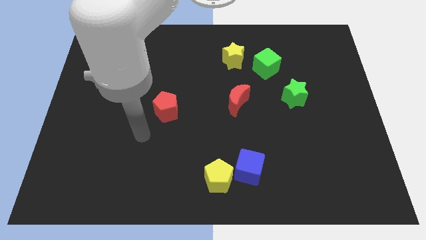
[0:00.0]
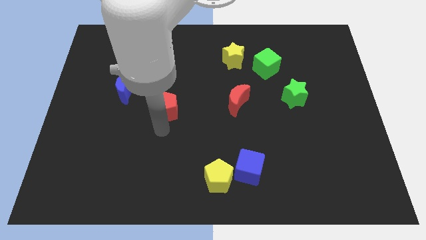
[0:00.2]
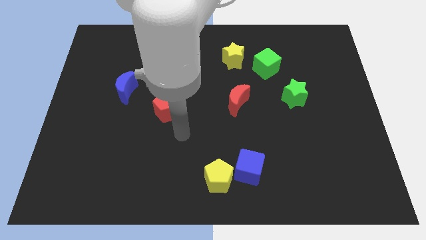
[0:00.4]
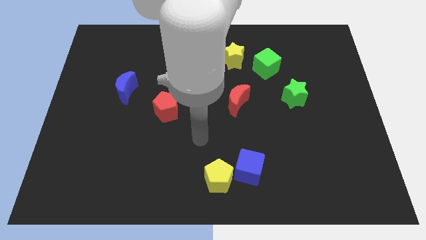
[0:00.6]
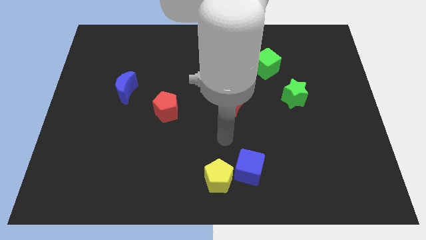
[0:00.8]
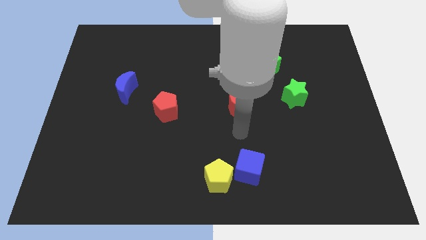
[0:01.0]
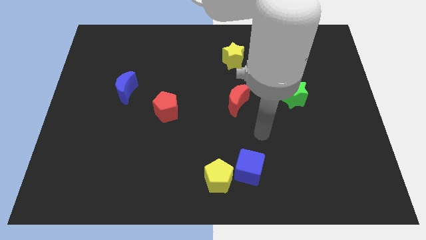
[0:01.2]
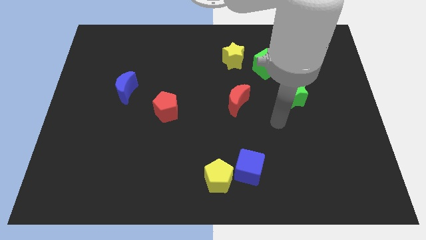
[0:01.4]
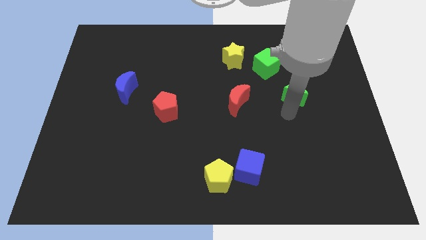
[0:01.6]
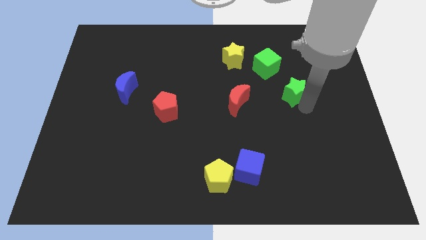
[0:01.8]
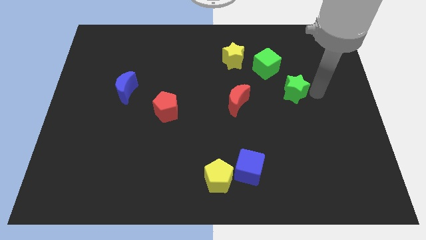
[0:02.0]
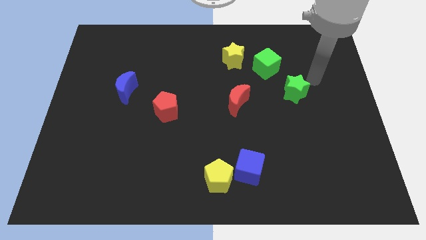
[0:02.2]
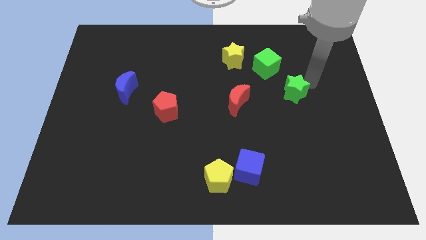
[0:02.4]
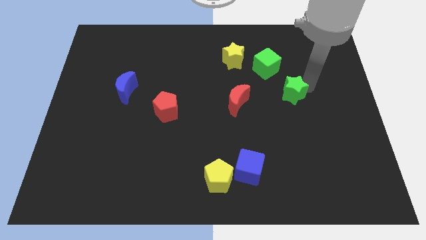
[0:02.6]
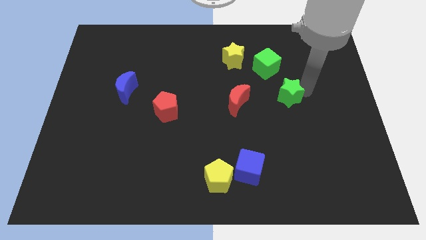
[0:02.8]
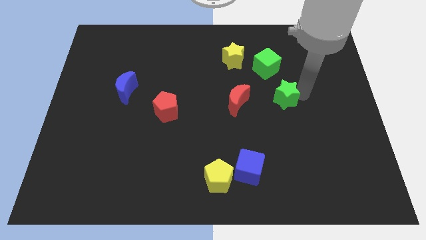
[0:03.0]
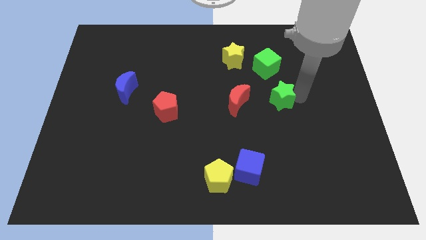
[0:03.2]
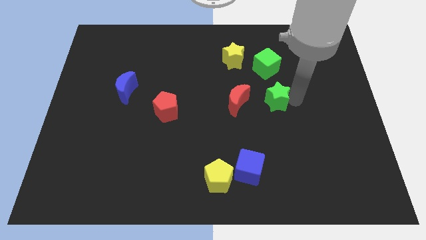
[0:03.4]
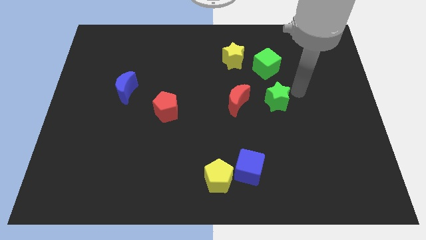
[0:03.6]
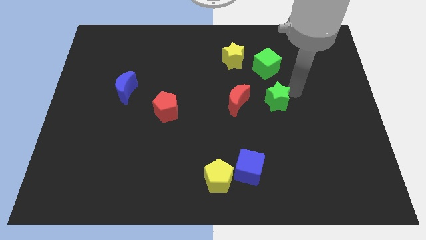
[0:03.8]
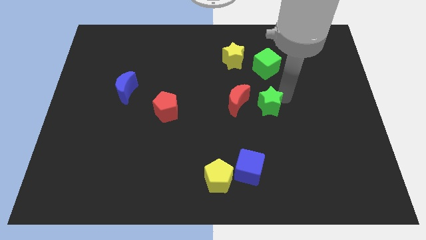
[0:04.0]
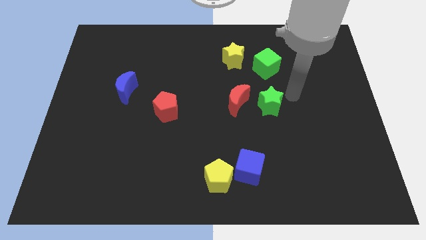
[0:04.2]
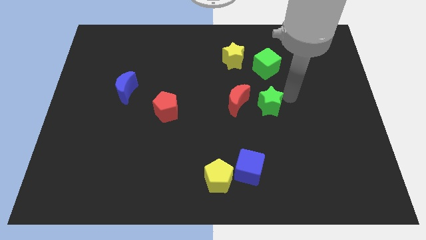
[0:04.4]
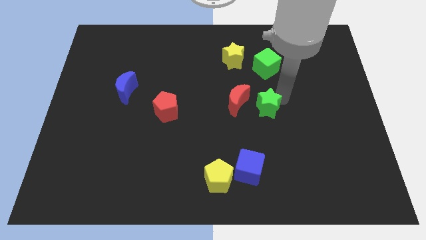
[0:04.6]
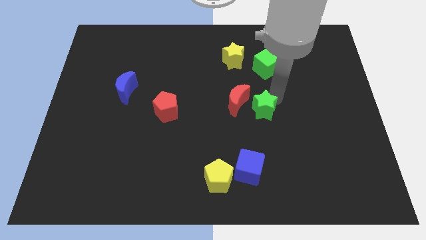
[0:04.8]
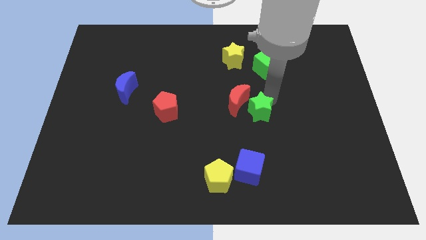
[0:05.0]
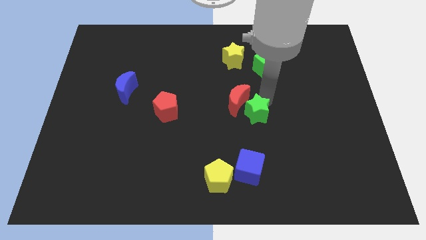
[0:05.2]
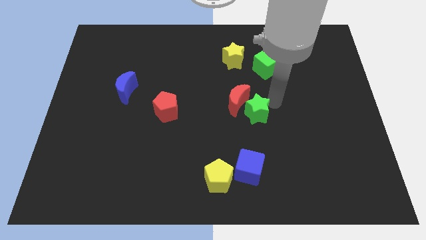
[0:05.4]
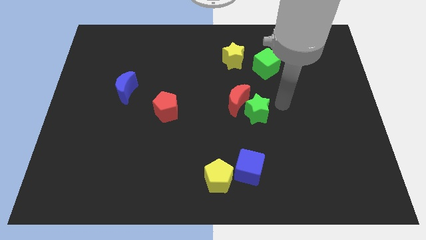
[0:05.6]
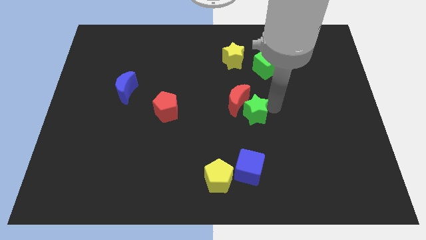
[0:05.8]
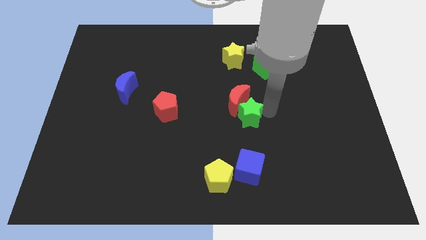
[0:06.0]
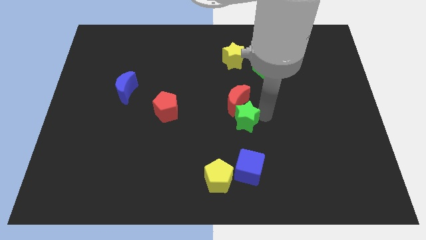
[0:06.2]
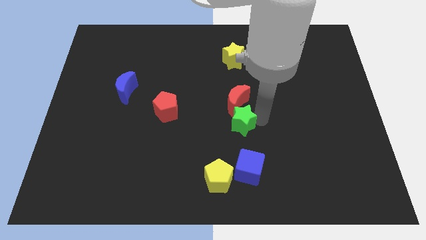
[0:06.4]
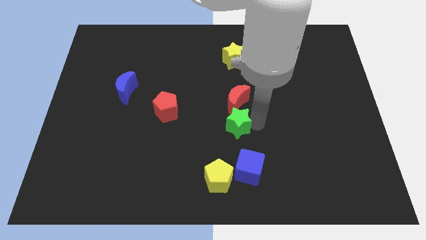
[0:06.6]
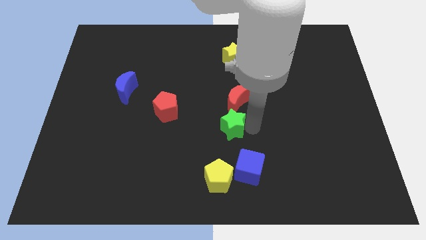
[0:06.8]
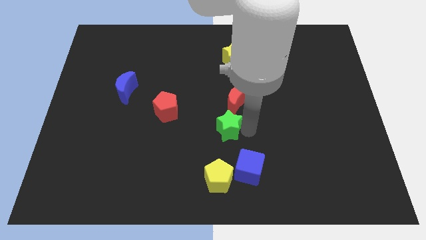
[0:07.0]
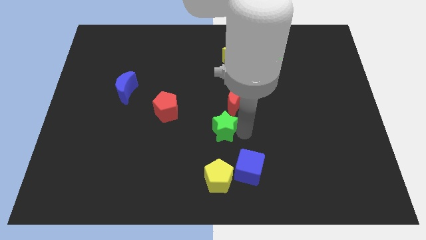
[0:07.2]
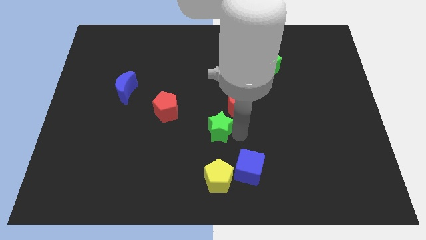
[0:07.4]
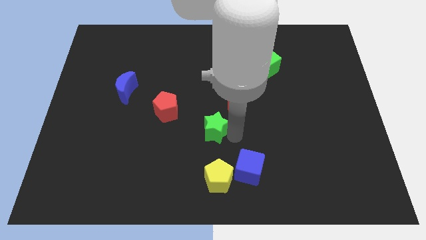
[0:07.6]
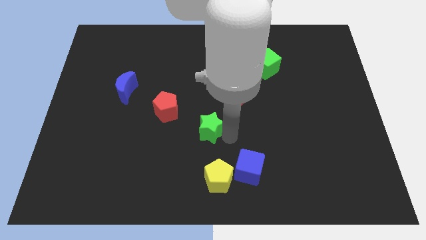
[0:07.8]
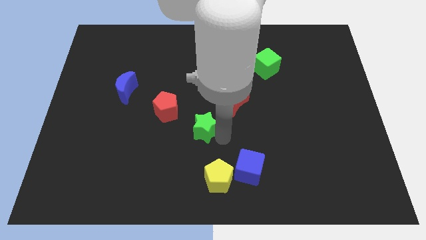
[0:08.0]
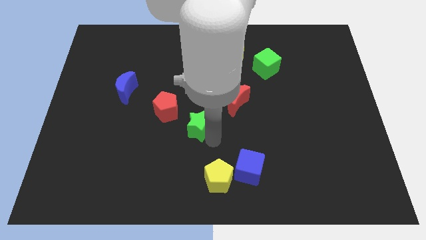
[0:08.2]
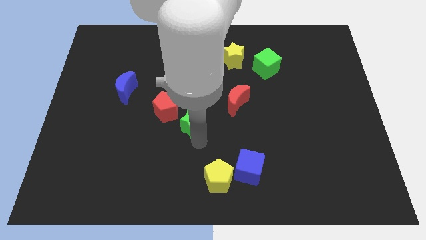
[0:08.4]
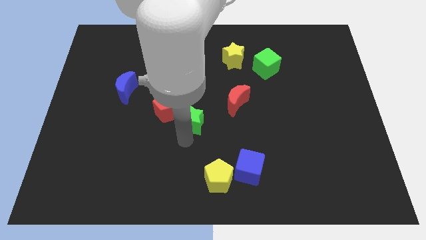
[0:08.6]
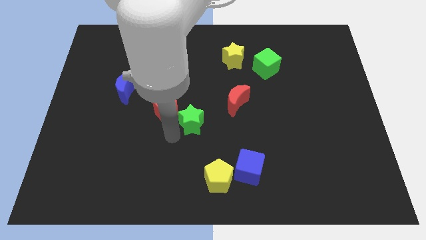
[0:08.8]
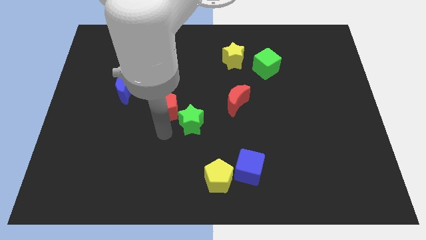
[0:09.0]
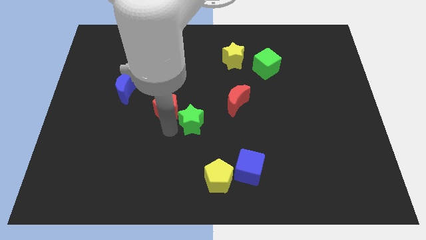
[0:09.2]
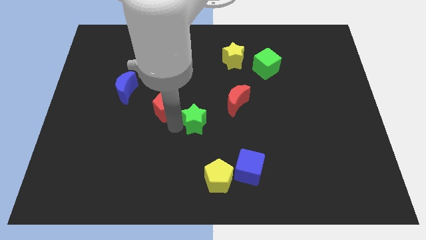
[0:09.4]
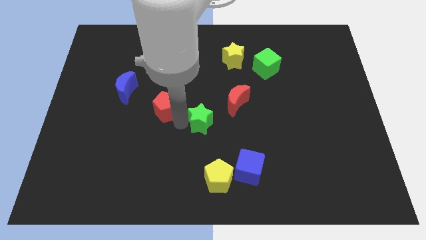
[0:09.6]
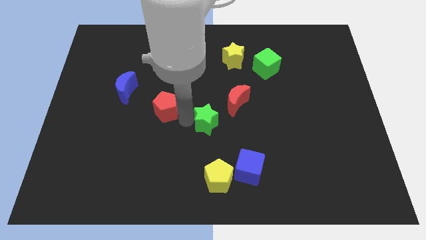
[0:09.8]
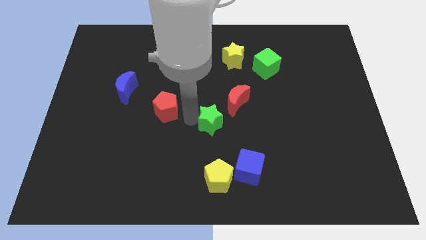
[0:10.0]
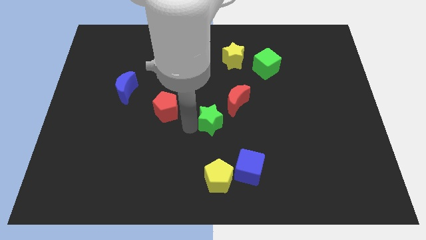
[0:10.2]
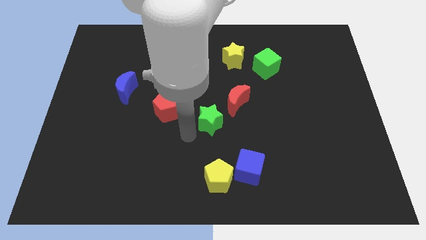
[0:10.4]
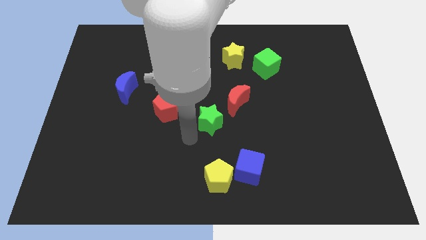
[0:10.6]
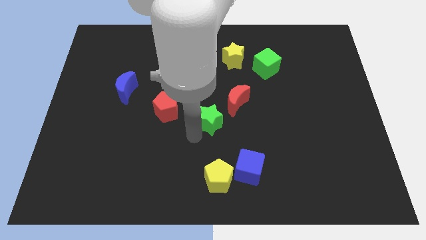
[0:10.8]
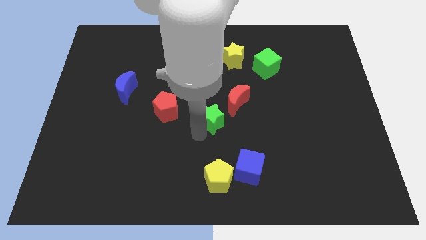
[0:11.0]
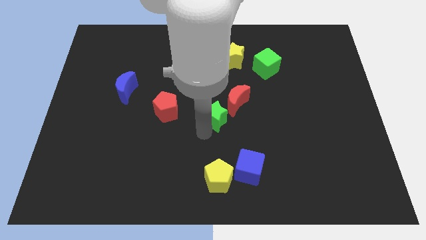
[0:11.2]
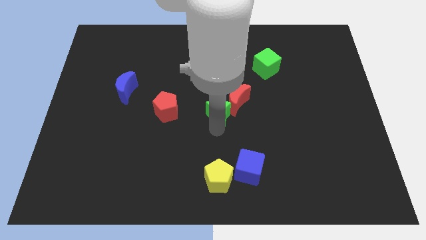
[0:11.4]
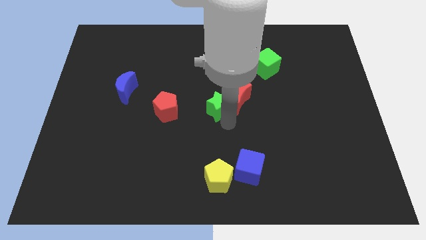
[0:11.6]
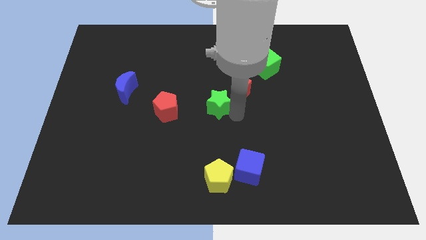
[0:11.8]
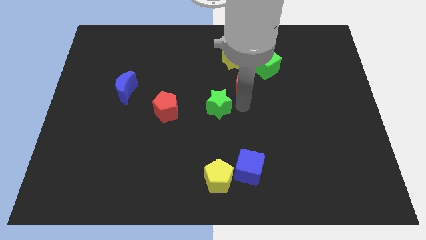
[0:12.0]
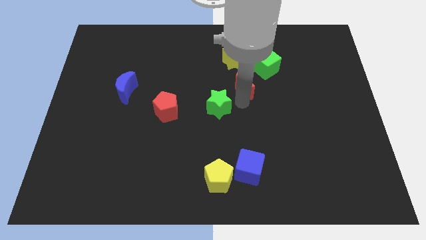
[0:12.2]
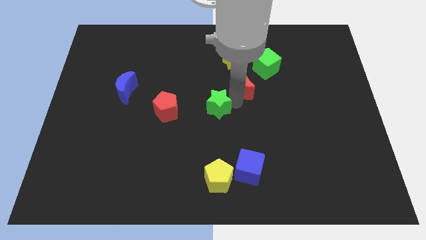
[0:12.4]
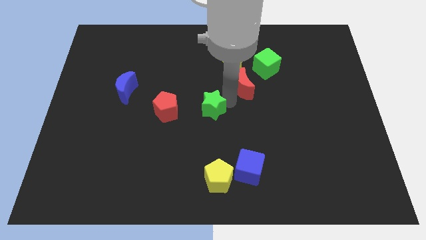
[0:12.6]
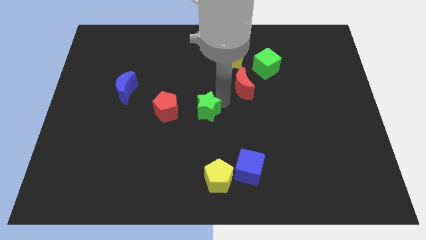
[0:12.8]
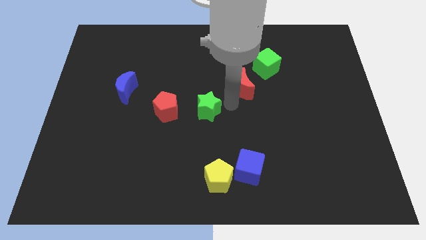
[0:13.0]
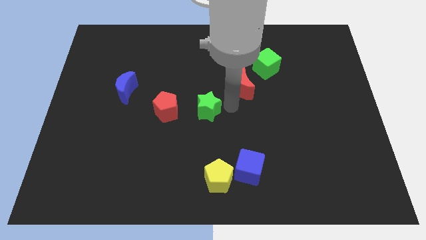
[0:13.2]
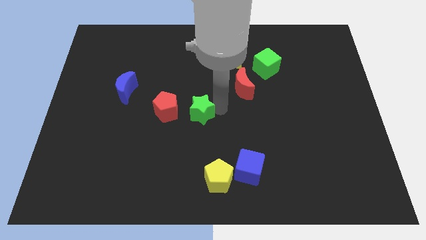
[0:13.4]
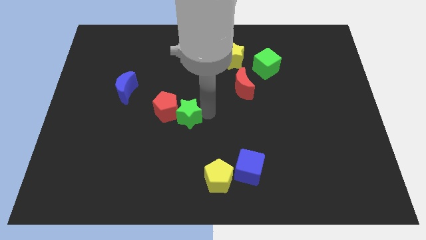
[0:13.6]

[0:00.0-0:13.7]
move the green star next to the red pentagon

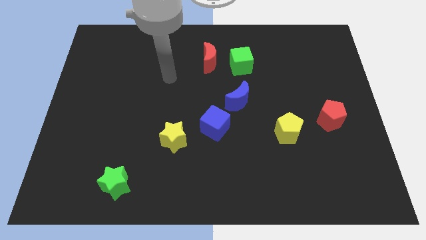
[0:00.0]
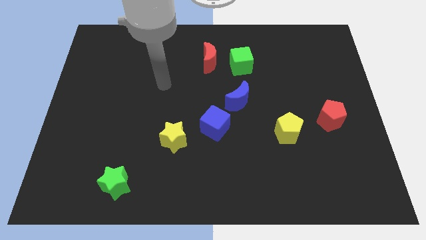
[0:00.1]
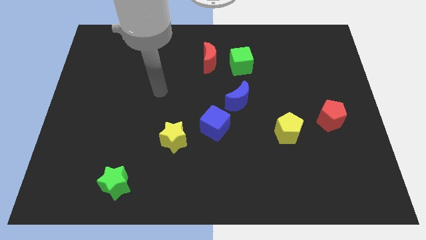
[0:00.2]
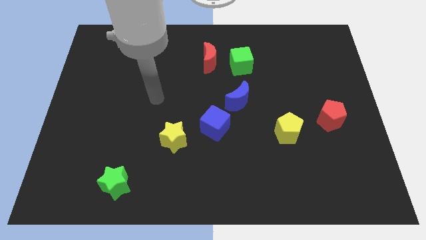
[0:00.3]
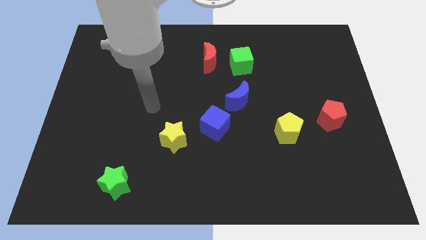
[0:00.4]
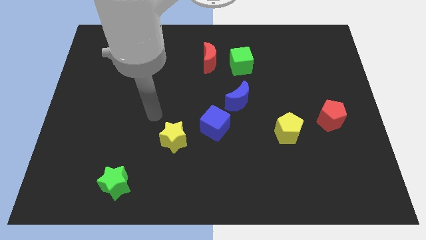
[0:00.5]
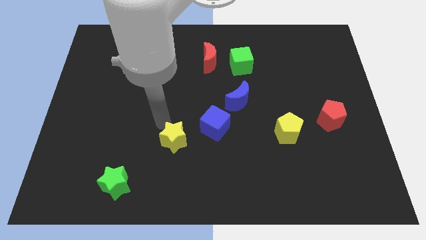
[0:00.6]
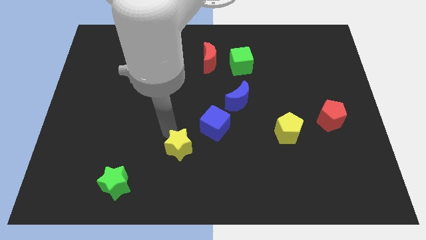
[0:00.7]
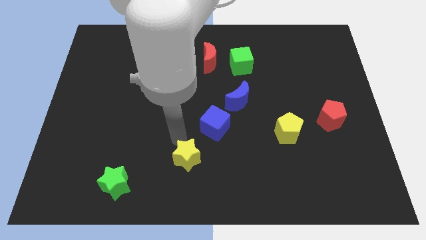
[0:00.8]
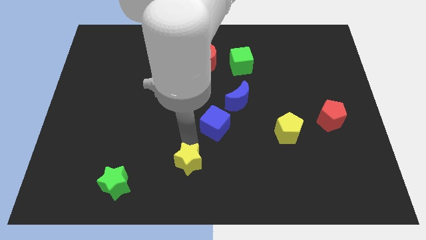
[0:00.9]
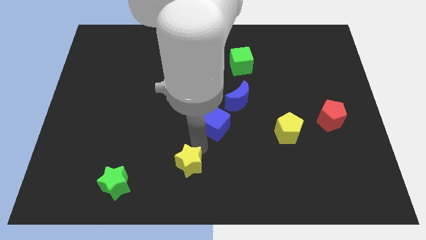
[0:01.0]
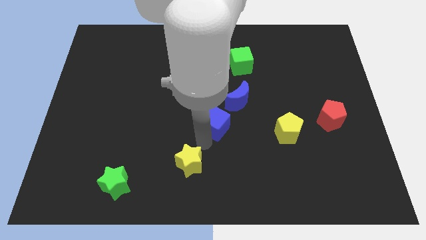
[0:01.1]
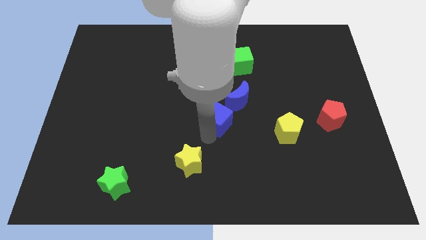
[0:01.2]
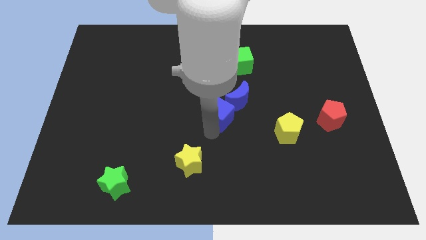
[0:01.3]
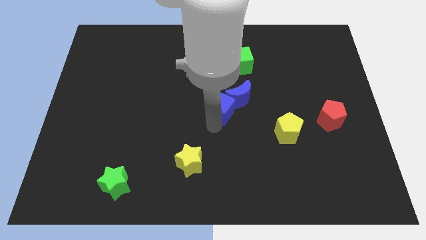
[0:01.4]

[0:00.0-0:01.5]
push the blue cube towards the blue moon
